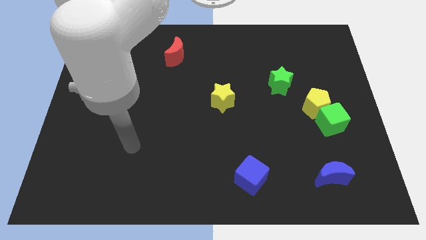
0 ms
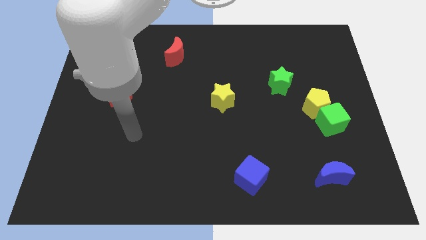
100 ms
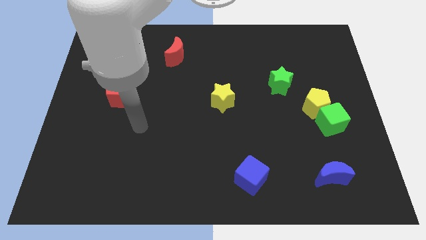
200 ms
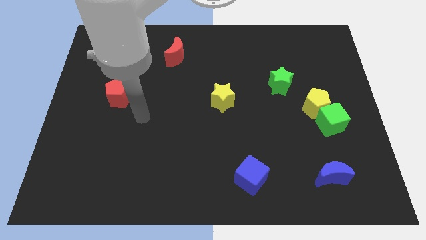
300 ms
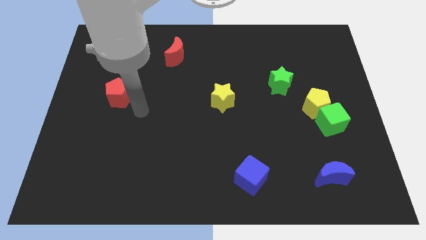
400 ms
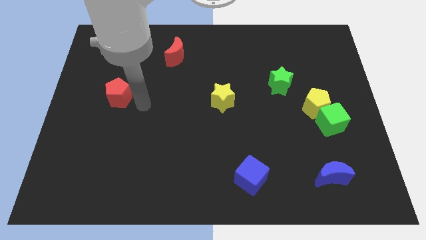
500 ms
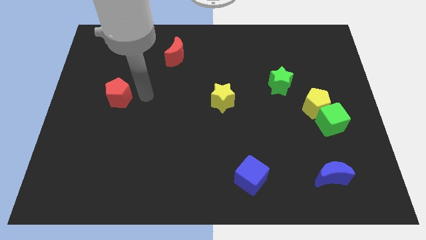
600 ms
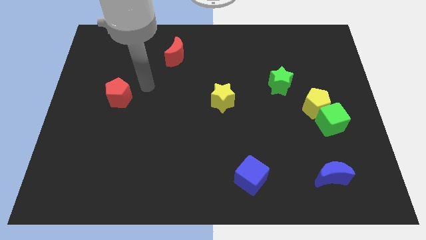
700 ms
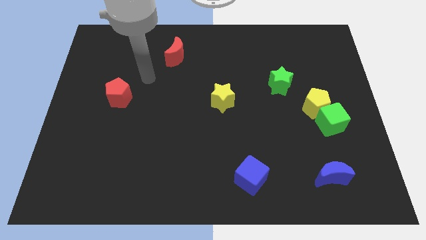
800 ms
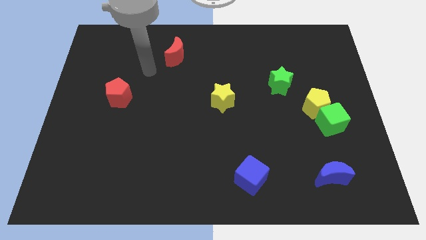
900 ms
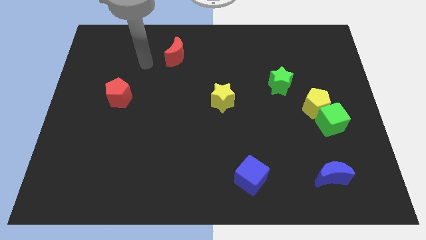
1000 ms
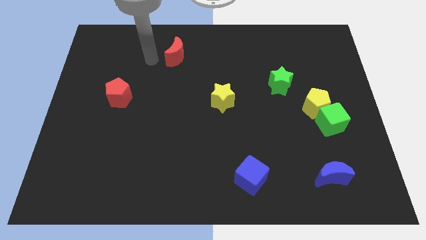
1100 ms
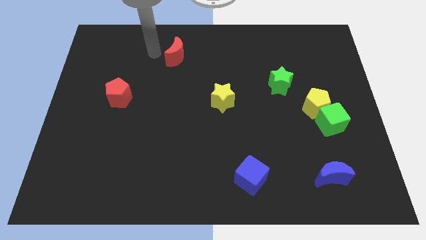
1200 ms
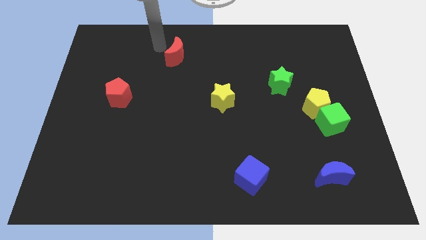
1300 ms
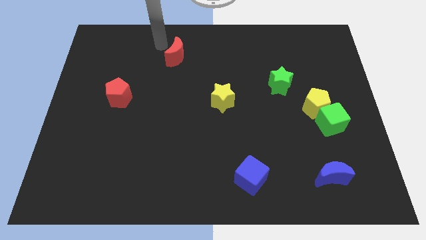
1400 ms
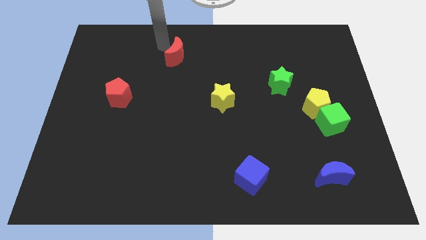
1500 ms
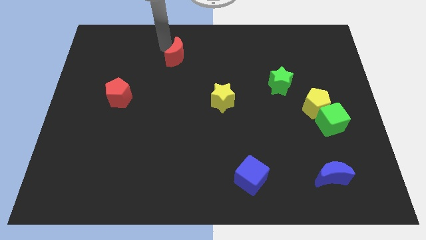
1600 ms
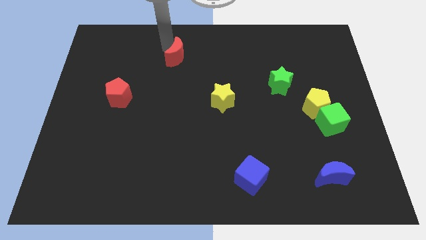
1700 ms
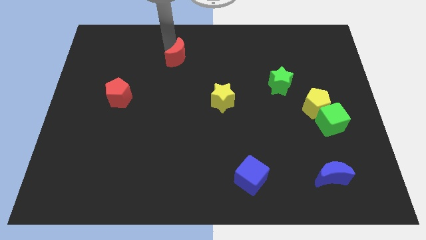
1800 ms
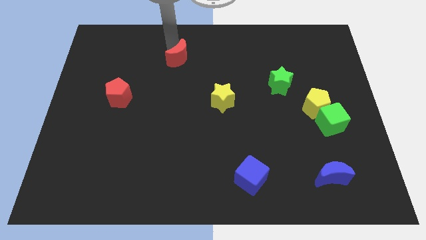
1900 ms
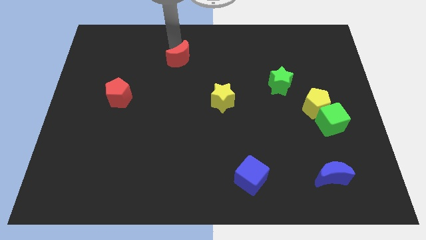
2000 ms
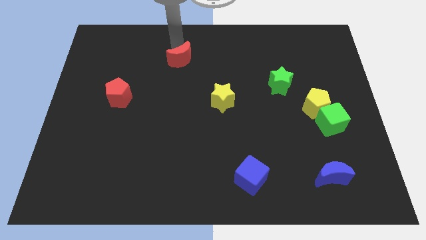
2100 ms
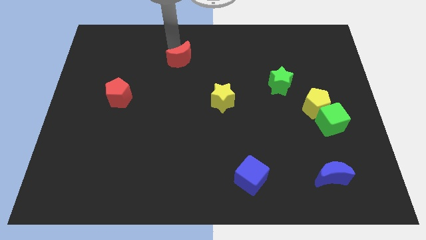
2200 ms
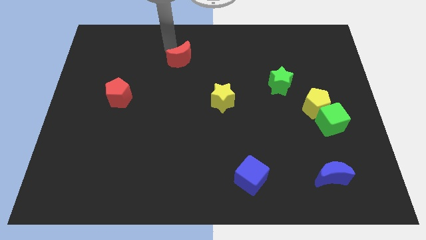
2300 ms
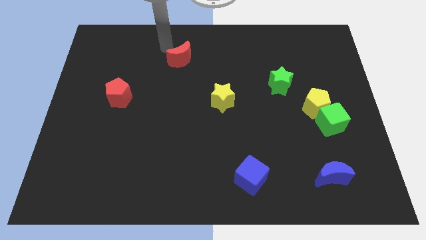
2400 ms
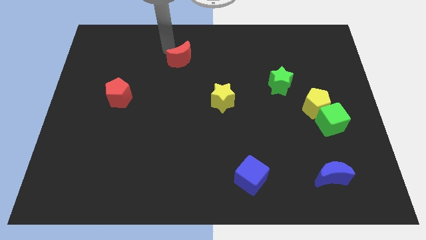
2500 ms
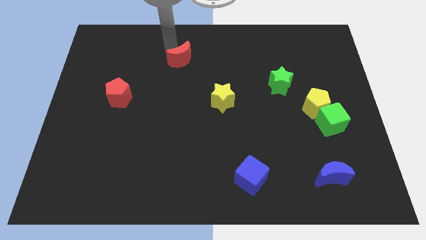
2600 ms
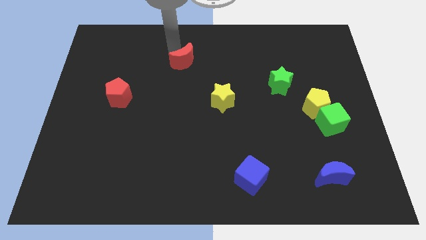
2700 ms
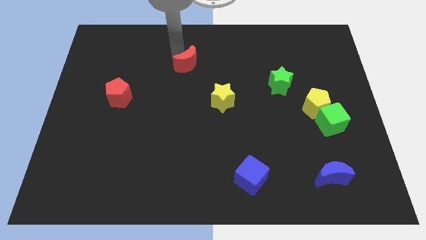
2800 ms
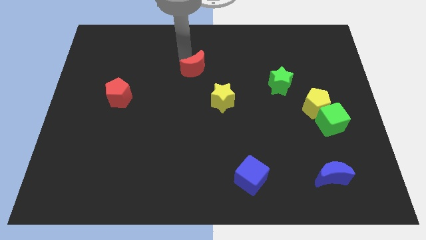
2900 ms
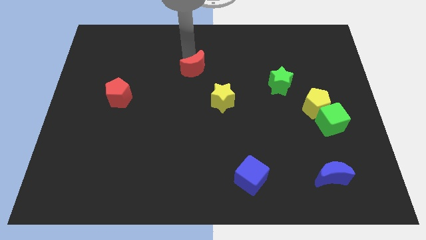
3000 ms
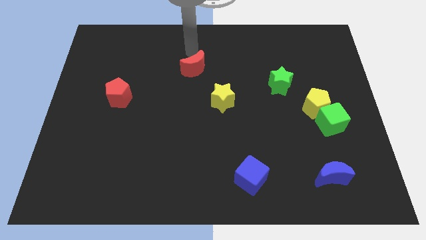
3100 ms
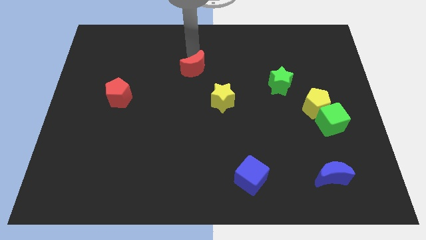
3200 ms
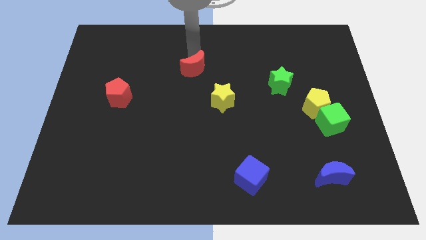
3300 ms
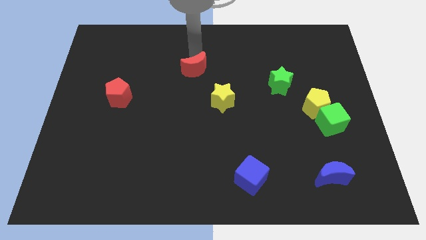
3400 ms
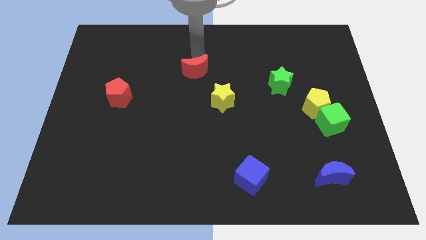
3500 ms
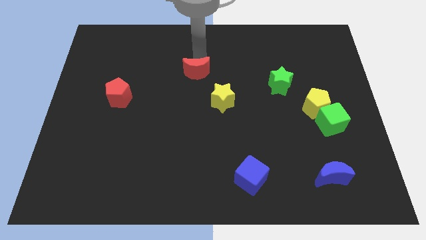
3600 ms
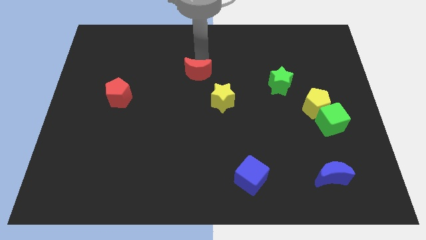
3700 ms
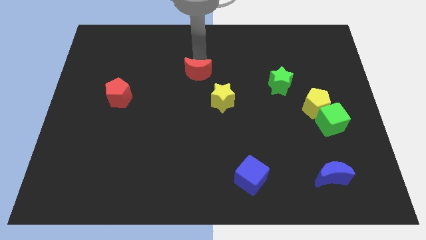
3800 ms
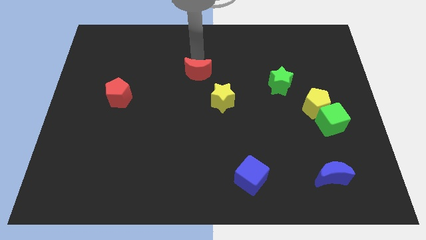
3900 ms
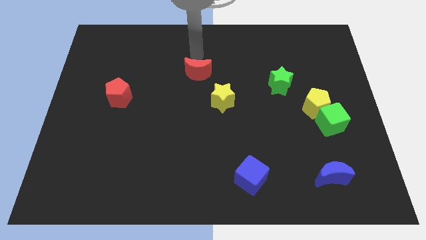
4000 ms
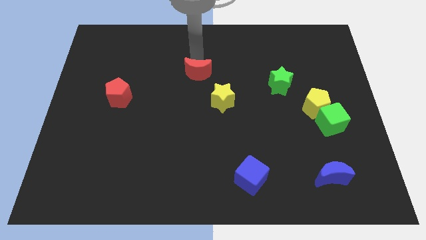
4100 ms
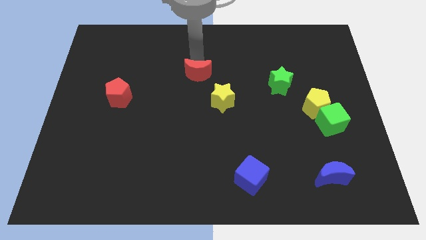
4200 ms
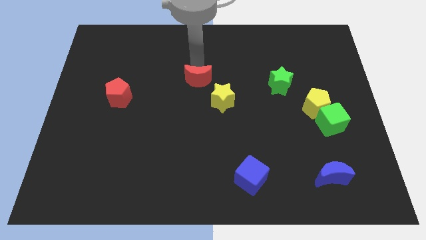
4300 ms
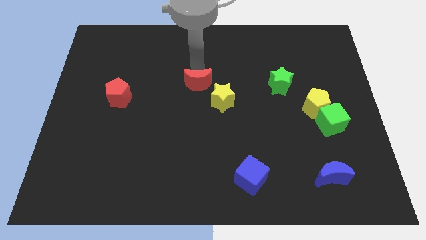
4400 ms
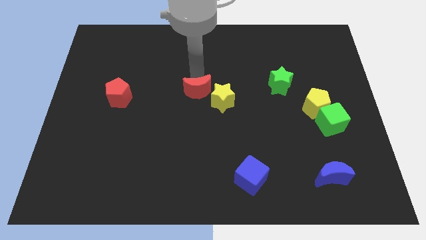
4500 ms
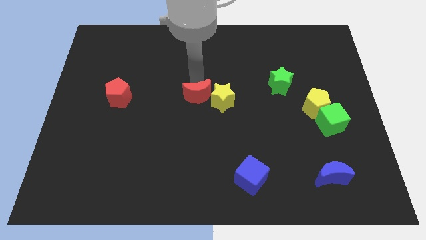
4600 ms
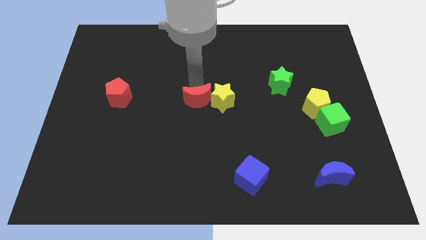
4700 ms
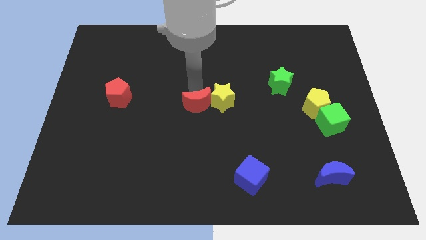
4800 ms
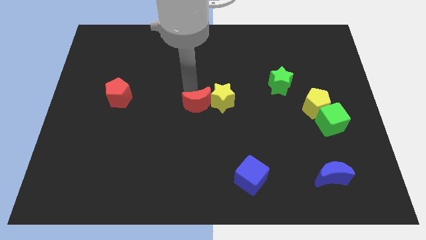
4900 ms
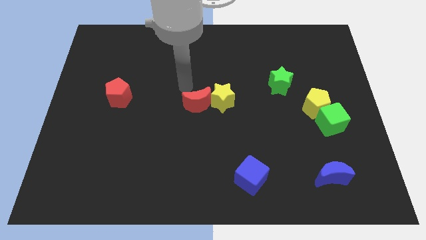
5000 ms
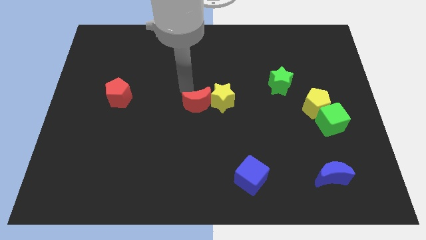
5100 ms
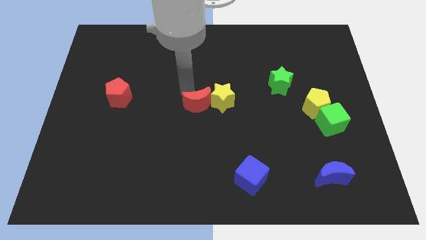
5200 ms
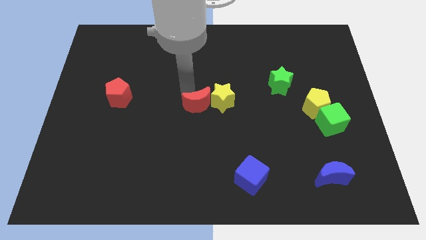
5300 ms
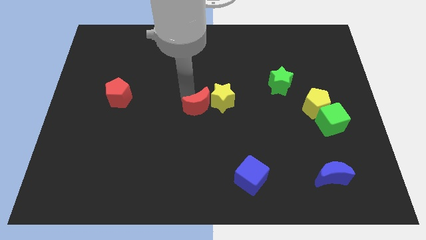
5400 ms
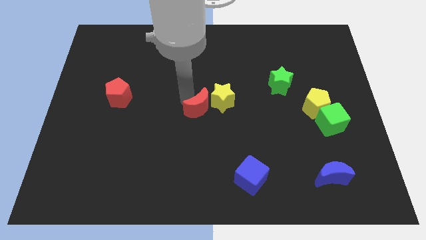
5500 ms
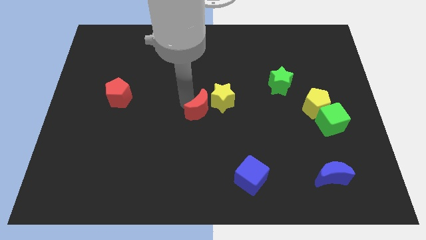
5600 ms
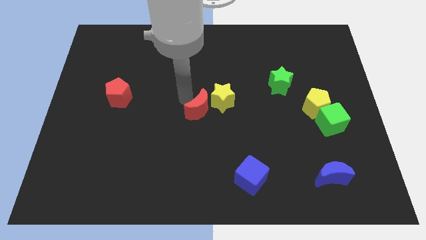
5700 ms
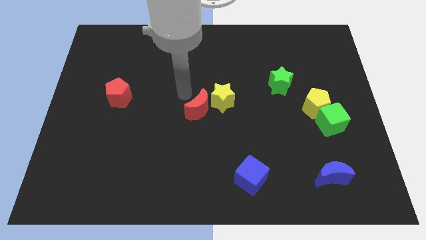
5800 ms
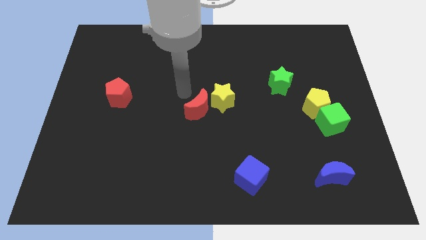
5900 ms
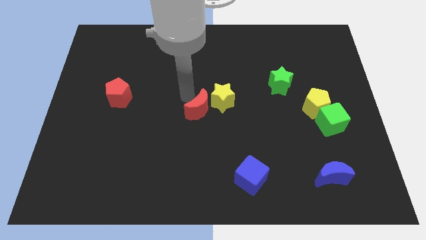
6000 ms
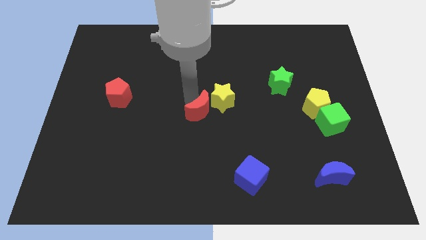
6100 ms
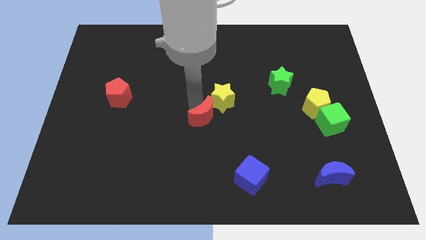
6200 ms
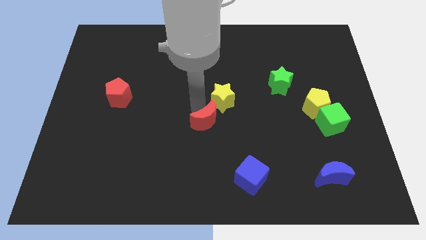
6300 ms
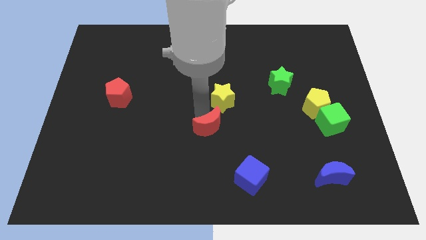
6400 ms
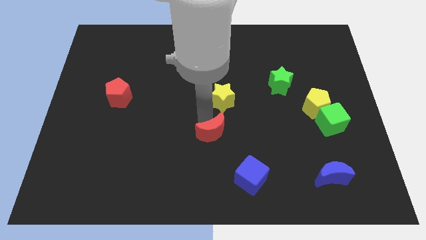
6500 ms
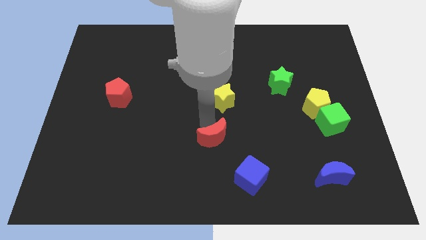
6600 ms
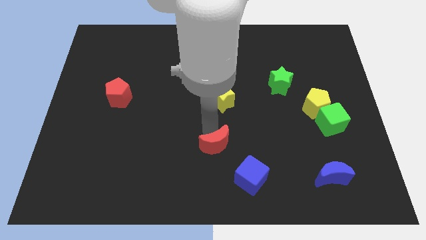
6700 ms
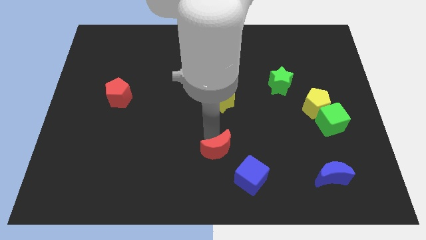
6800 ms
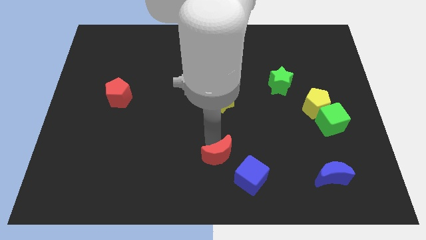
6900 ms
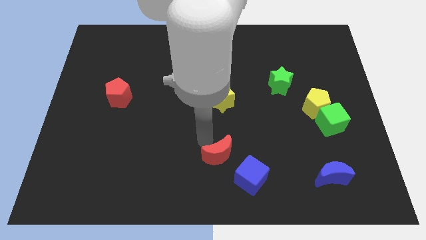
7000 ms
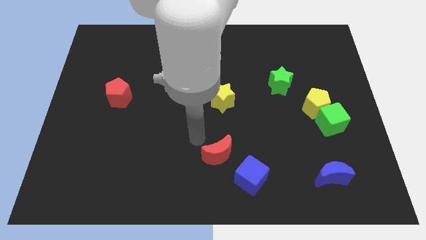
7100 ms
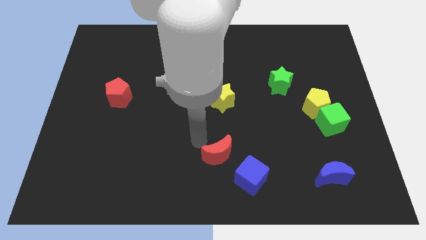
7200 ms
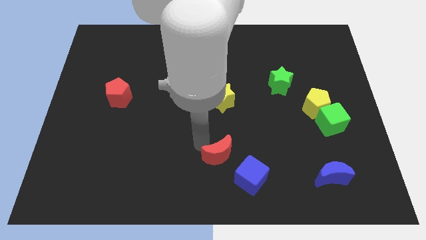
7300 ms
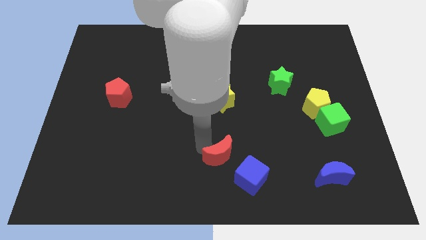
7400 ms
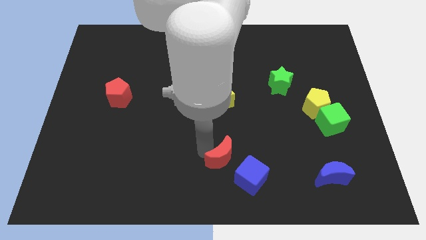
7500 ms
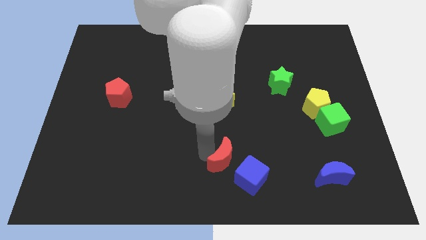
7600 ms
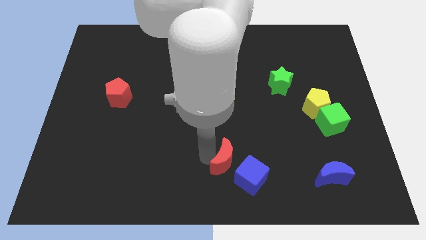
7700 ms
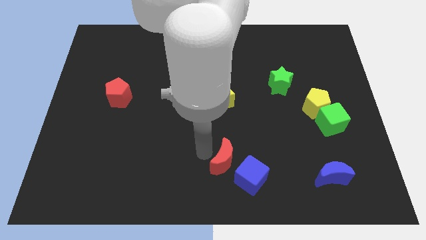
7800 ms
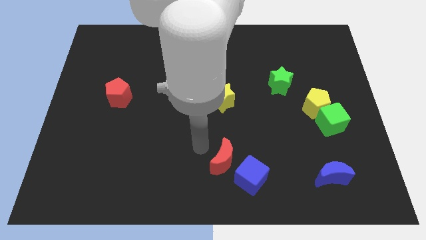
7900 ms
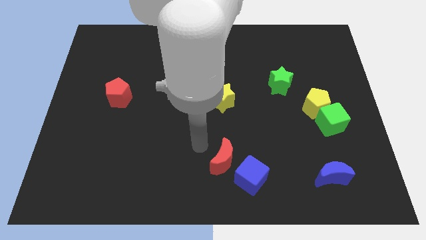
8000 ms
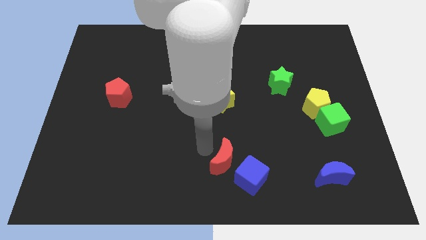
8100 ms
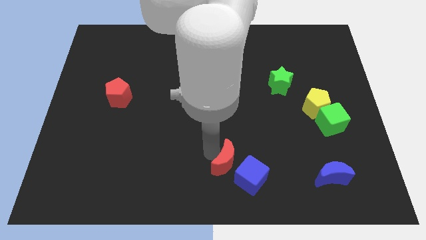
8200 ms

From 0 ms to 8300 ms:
put the red moon close to the blue cube
